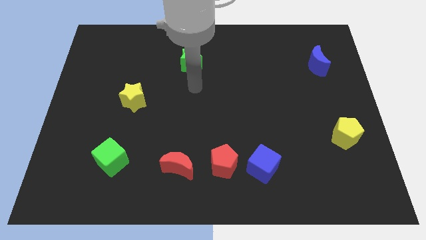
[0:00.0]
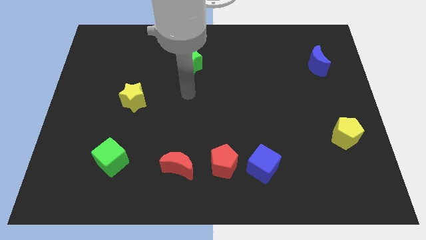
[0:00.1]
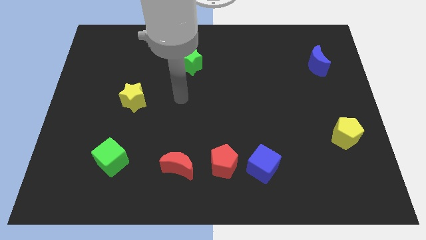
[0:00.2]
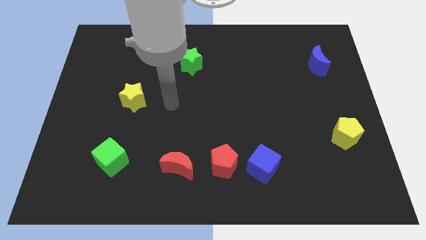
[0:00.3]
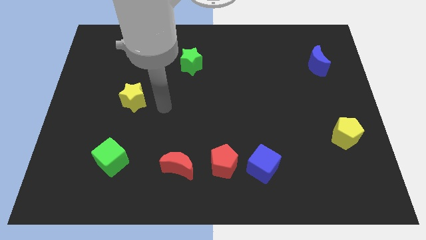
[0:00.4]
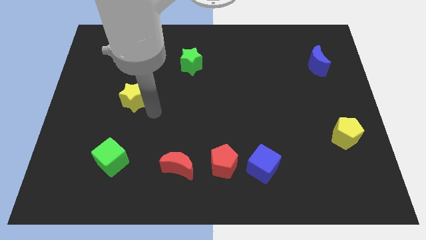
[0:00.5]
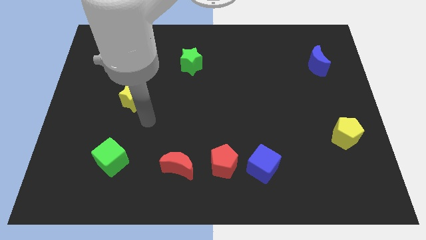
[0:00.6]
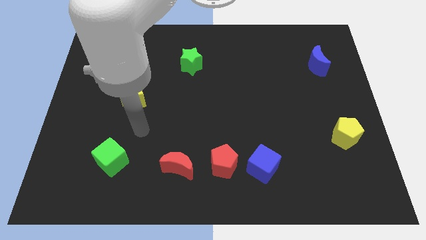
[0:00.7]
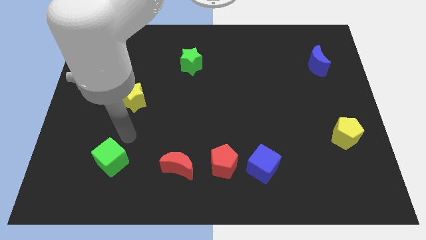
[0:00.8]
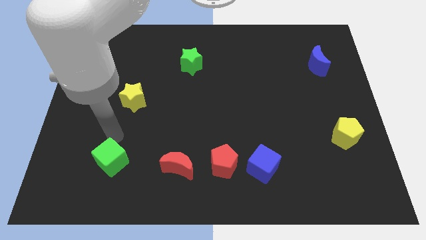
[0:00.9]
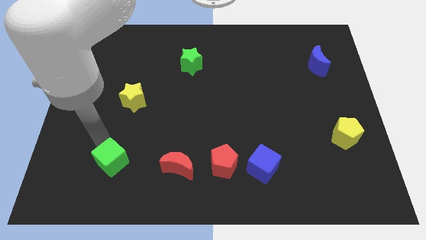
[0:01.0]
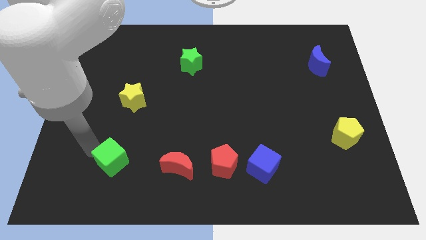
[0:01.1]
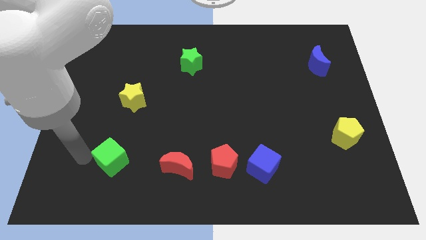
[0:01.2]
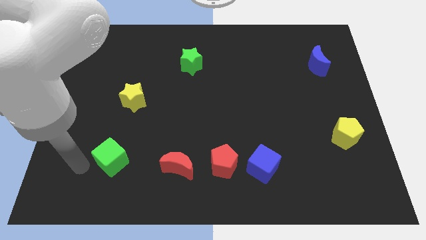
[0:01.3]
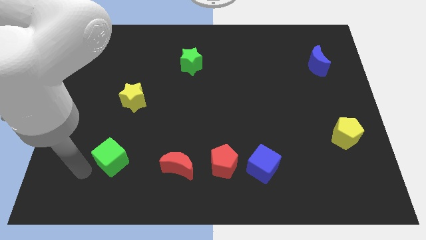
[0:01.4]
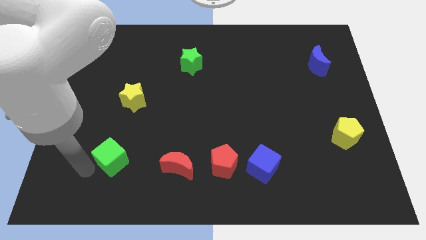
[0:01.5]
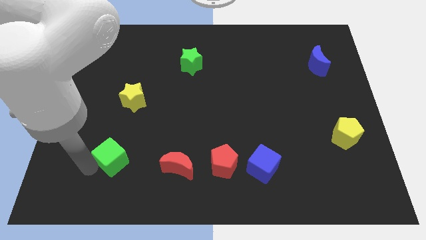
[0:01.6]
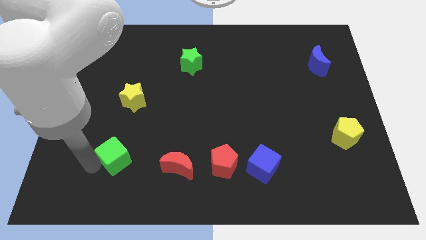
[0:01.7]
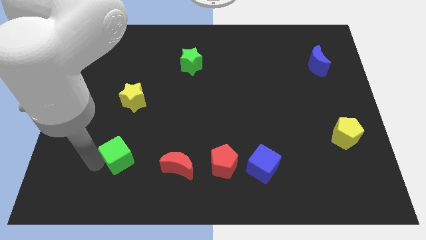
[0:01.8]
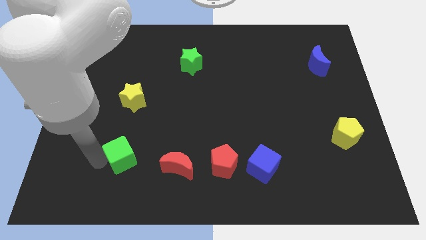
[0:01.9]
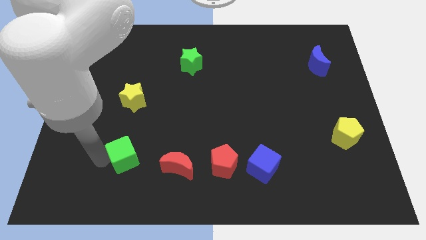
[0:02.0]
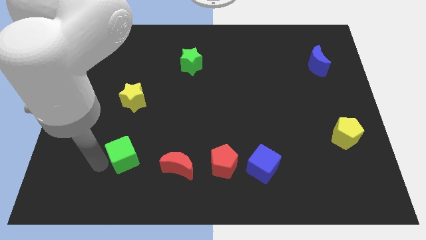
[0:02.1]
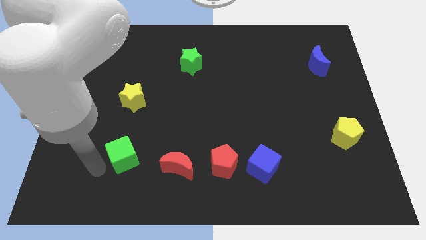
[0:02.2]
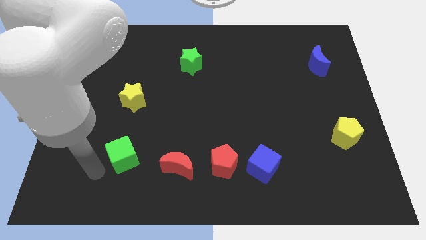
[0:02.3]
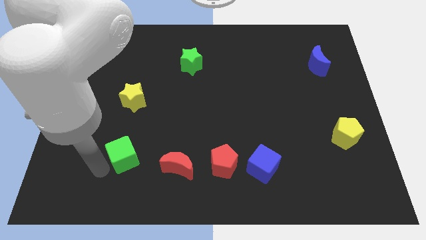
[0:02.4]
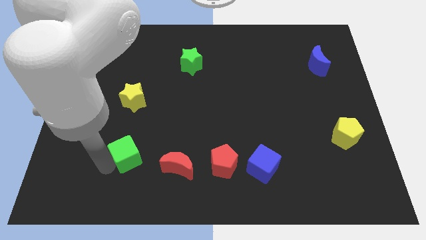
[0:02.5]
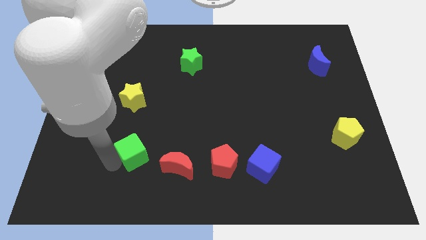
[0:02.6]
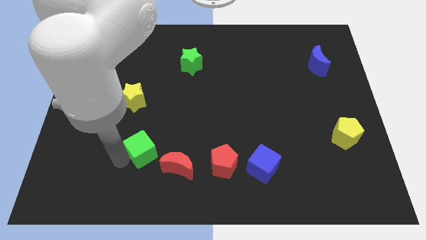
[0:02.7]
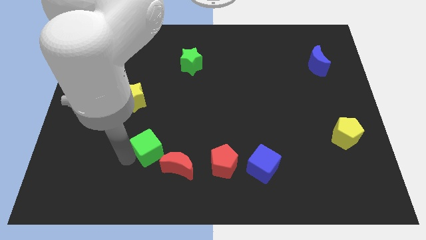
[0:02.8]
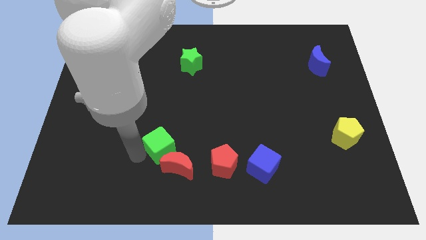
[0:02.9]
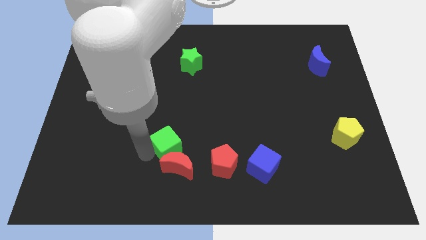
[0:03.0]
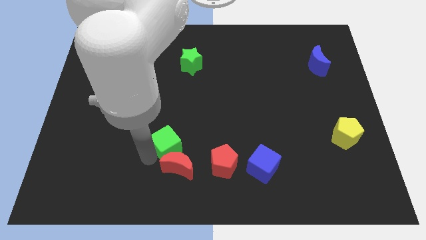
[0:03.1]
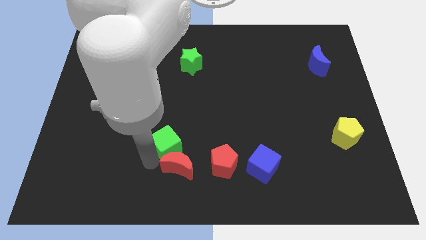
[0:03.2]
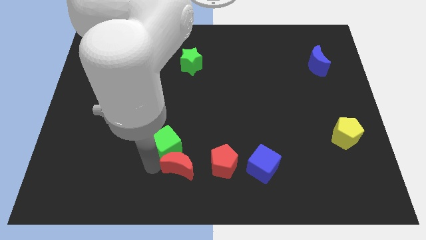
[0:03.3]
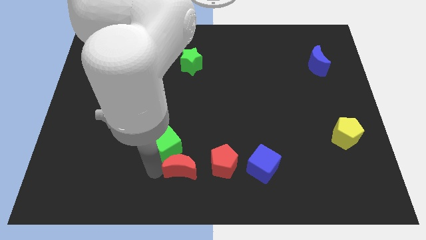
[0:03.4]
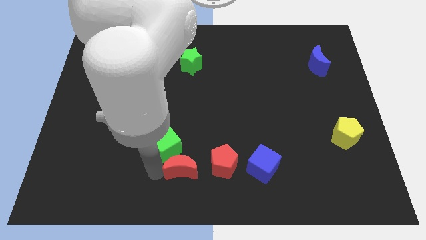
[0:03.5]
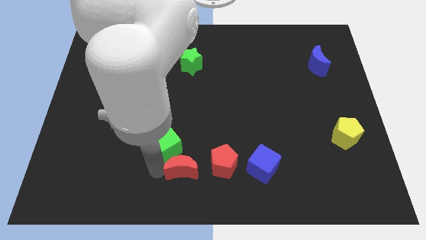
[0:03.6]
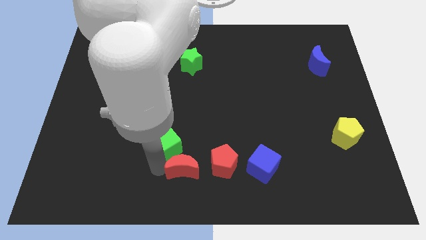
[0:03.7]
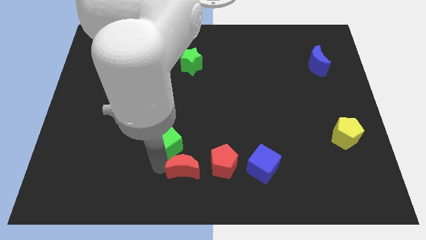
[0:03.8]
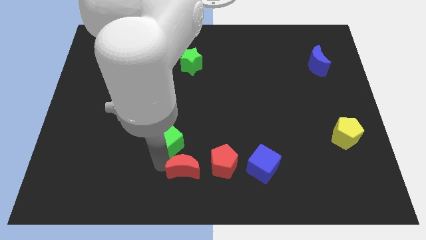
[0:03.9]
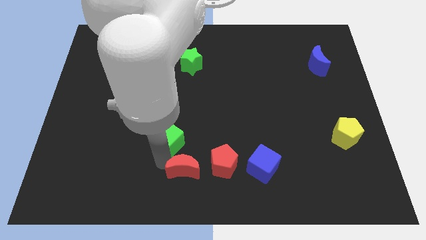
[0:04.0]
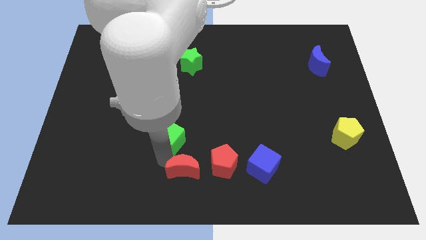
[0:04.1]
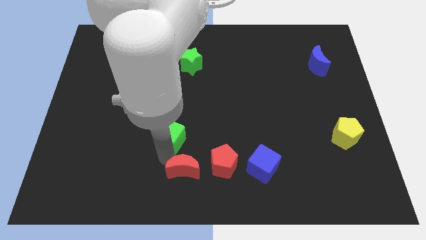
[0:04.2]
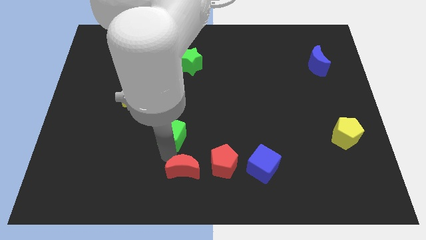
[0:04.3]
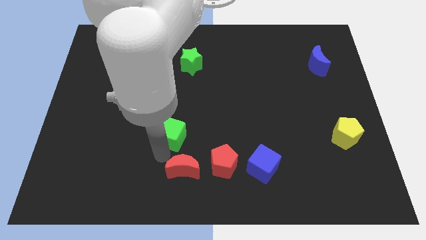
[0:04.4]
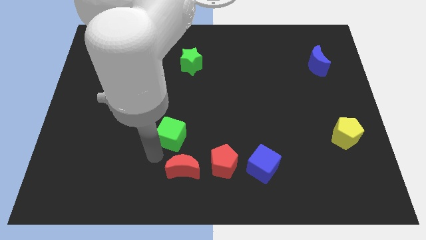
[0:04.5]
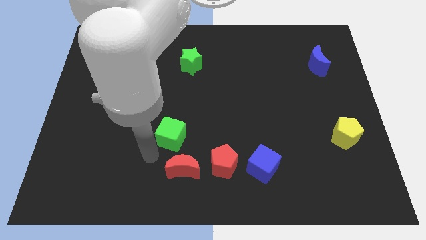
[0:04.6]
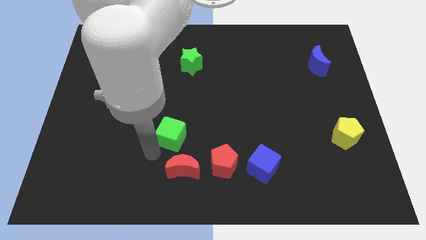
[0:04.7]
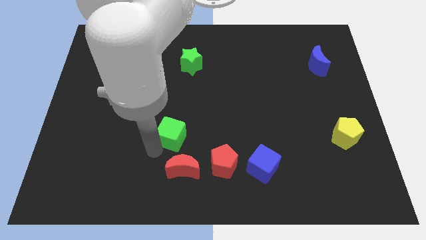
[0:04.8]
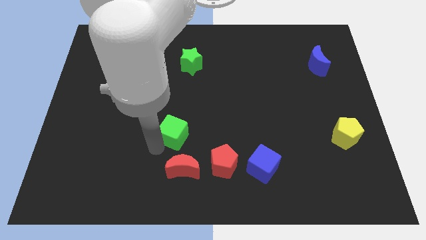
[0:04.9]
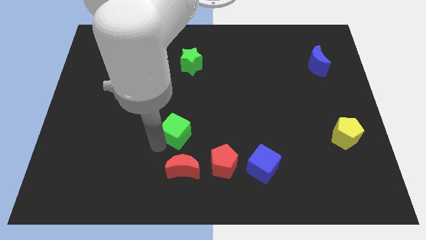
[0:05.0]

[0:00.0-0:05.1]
put the green cube to the center of the board

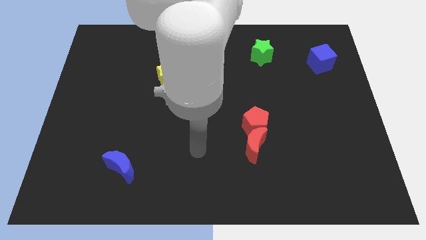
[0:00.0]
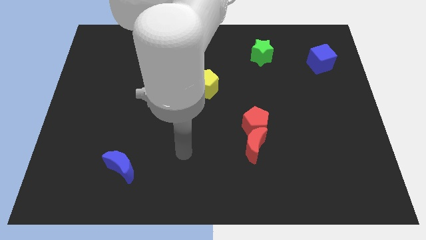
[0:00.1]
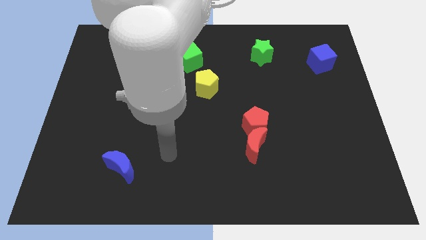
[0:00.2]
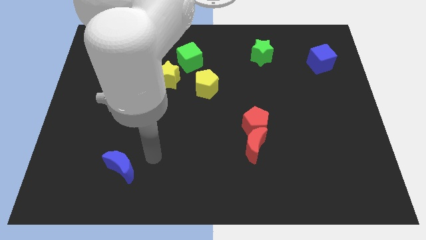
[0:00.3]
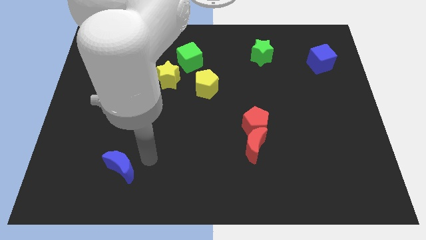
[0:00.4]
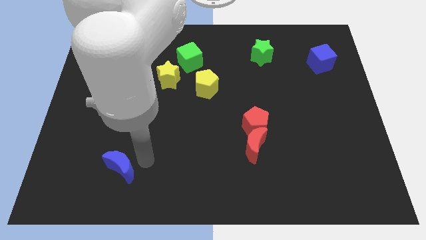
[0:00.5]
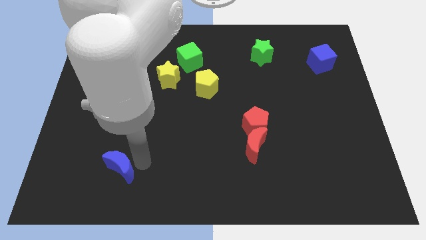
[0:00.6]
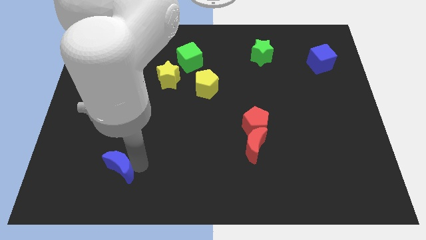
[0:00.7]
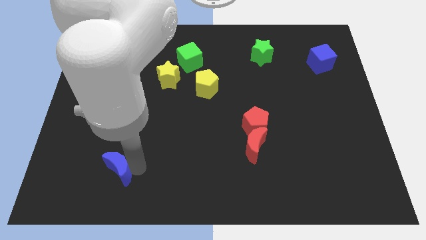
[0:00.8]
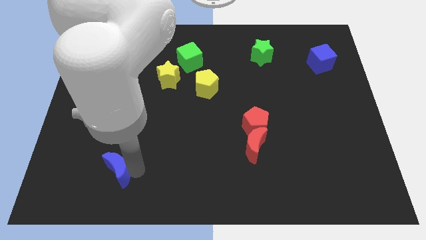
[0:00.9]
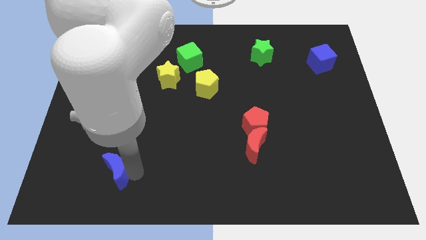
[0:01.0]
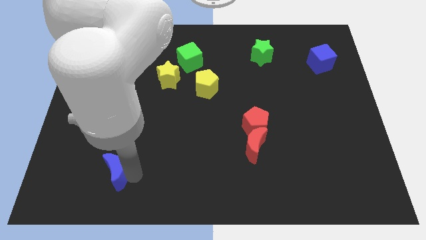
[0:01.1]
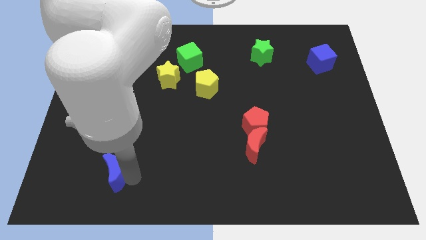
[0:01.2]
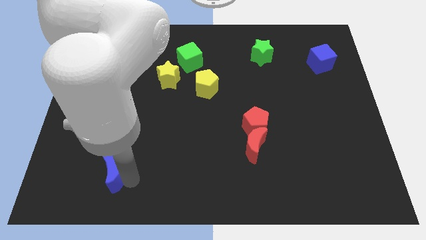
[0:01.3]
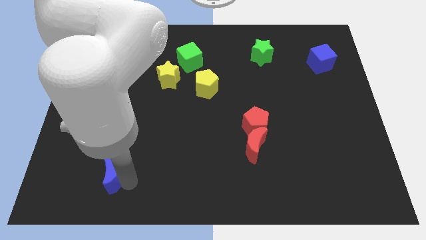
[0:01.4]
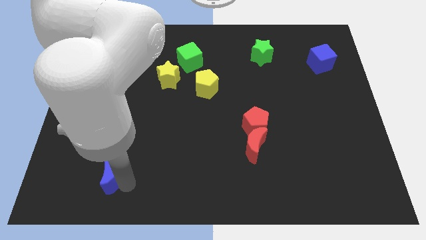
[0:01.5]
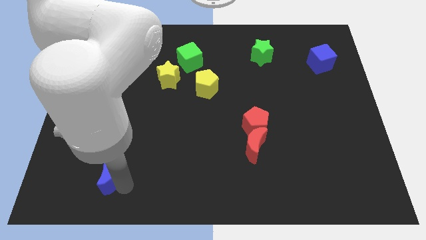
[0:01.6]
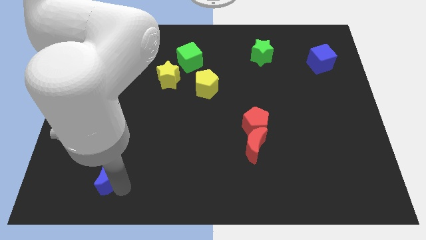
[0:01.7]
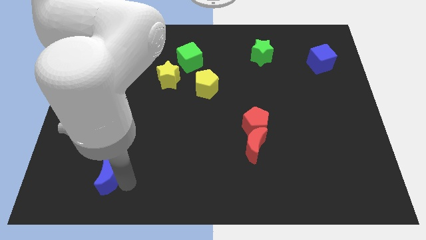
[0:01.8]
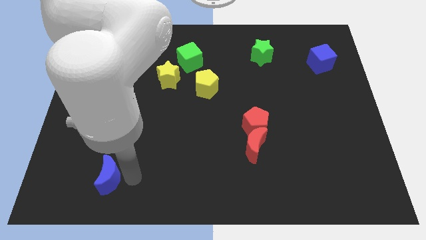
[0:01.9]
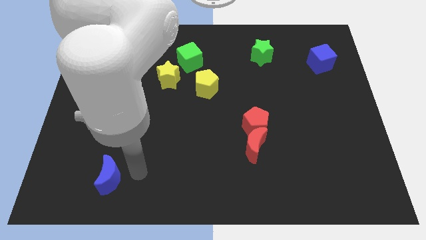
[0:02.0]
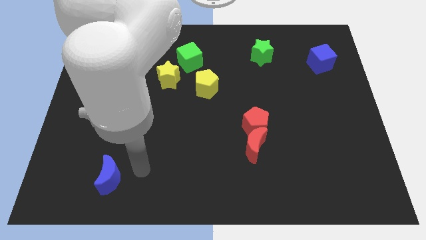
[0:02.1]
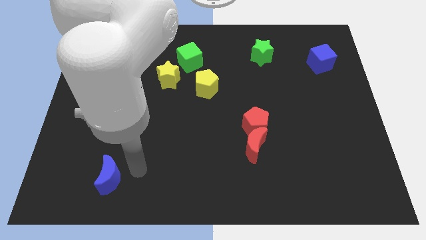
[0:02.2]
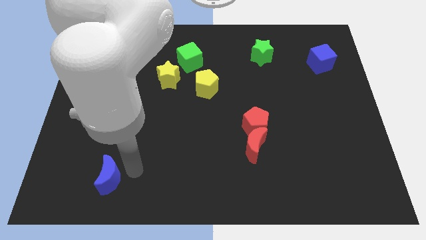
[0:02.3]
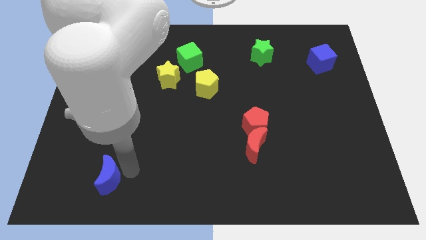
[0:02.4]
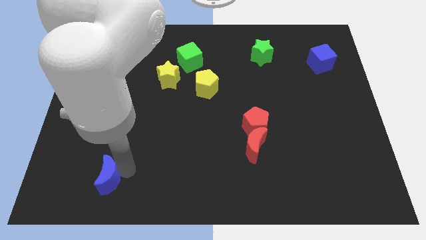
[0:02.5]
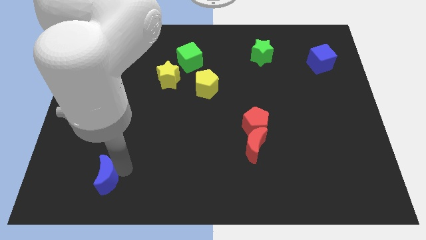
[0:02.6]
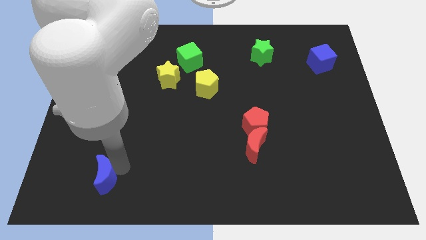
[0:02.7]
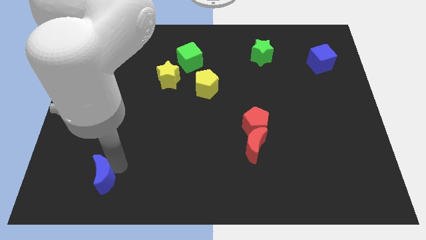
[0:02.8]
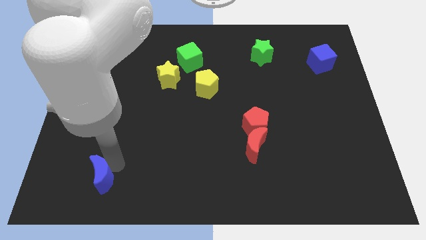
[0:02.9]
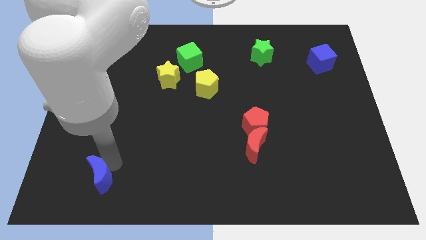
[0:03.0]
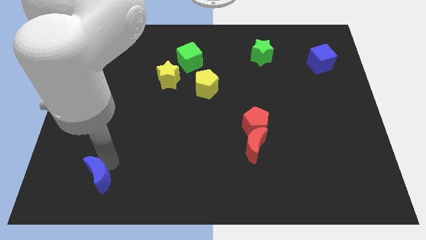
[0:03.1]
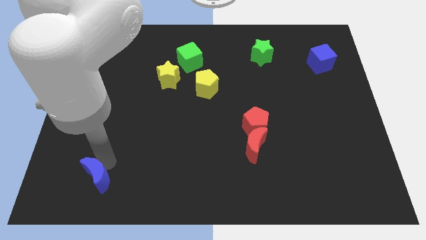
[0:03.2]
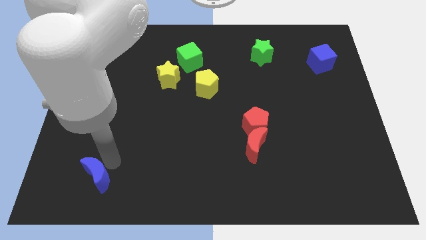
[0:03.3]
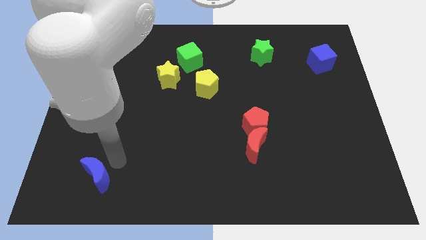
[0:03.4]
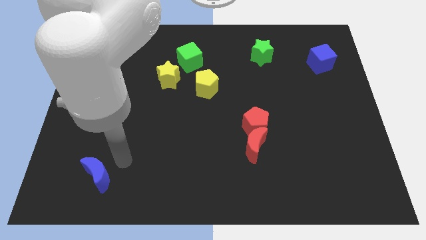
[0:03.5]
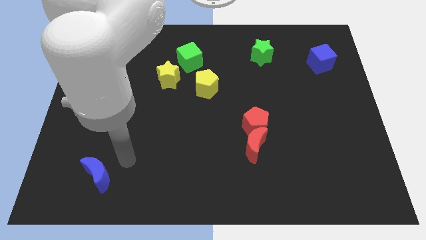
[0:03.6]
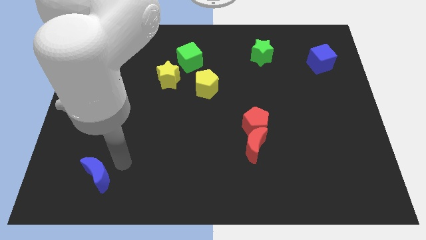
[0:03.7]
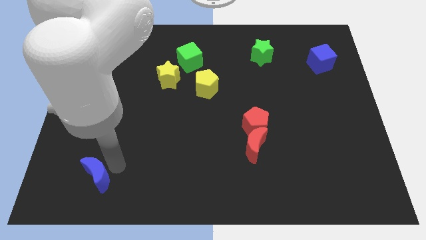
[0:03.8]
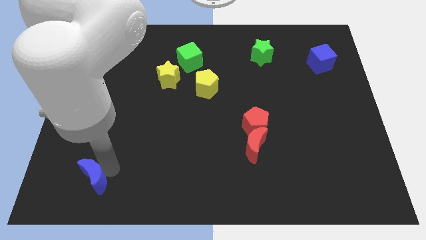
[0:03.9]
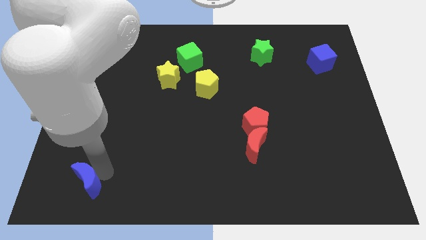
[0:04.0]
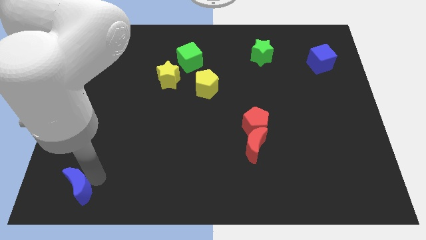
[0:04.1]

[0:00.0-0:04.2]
move the blue moon to the bottom left of the board
